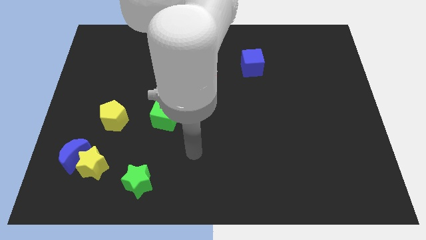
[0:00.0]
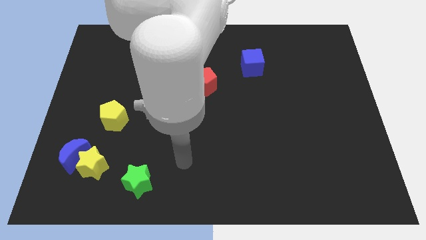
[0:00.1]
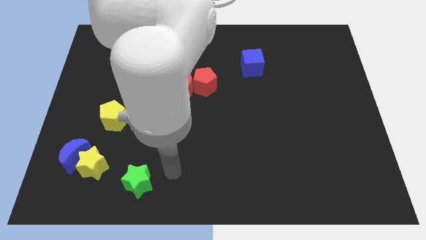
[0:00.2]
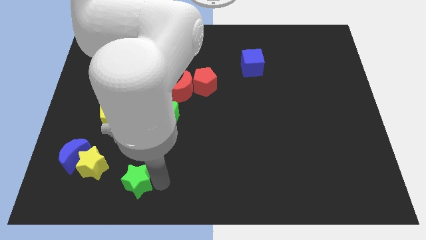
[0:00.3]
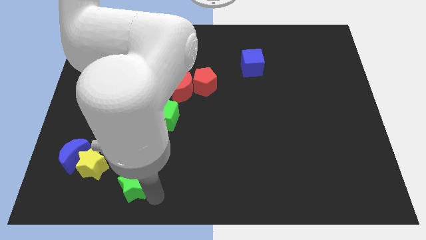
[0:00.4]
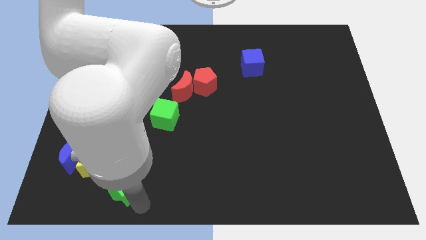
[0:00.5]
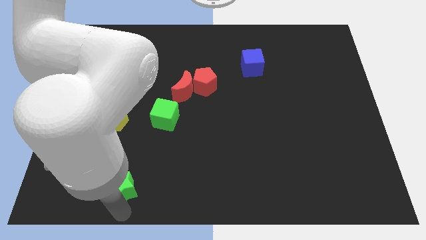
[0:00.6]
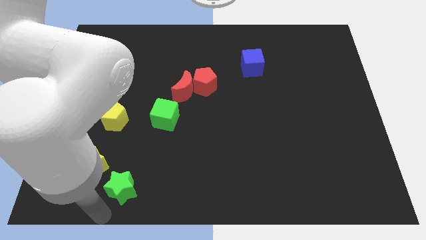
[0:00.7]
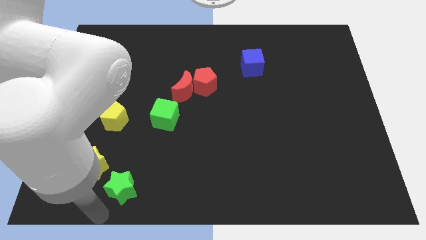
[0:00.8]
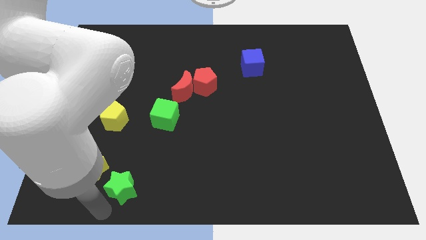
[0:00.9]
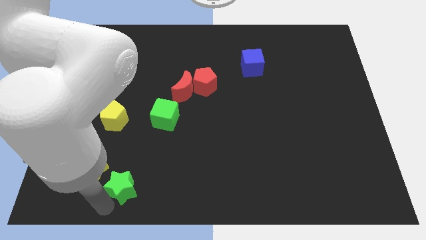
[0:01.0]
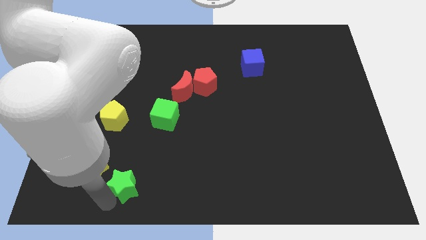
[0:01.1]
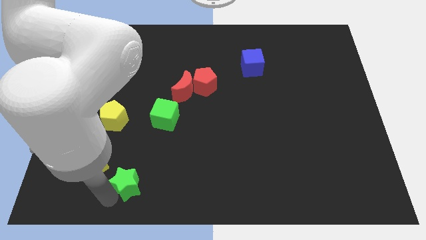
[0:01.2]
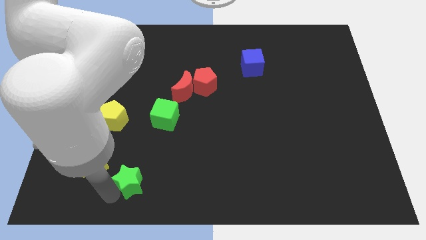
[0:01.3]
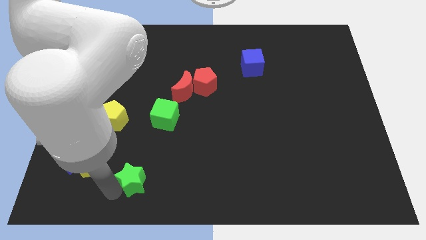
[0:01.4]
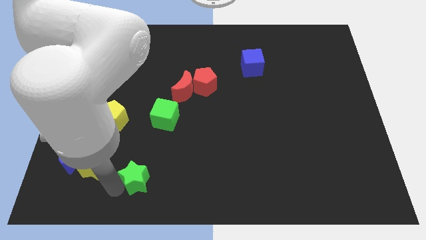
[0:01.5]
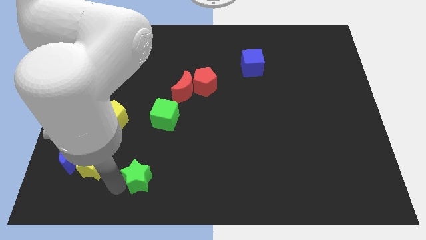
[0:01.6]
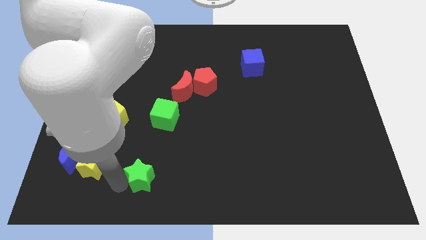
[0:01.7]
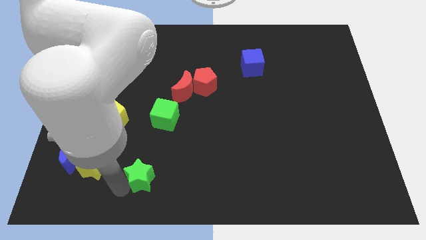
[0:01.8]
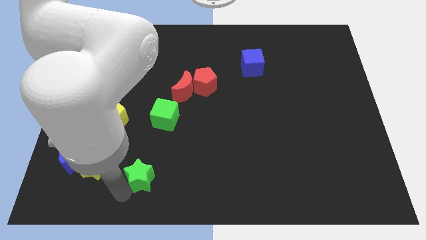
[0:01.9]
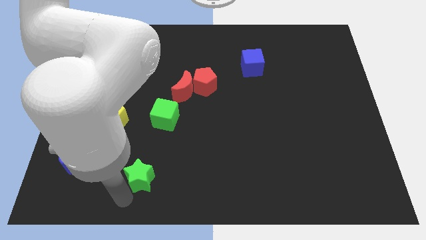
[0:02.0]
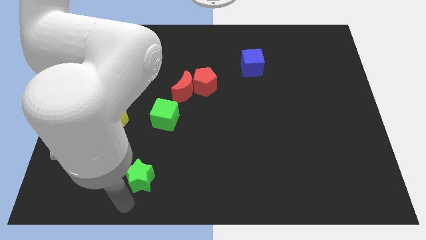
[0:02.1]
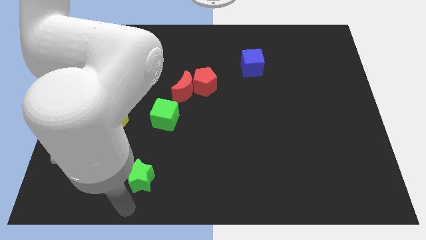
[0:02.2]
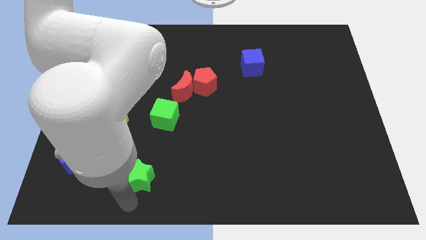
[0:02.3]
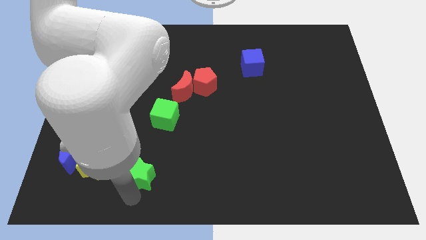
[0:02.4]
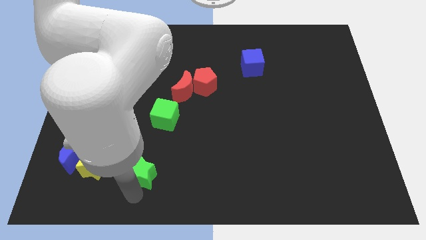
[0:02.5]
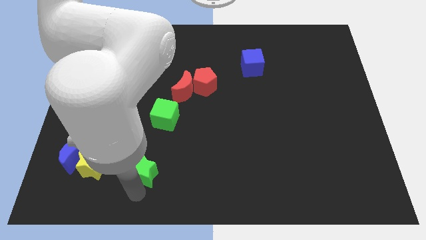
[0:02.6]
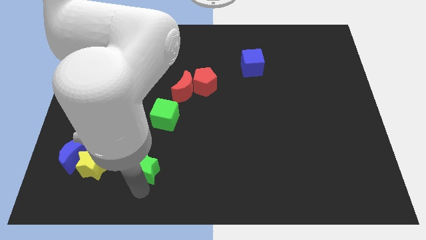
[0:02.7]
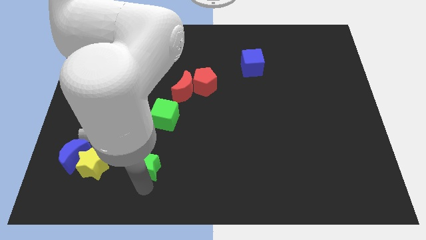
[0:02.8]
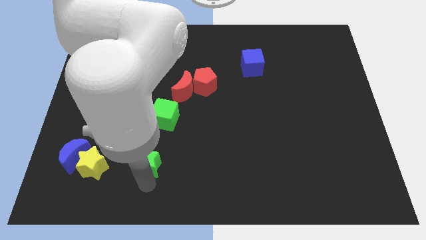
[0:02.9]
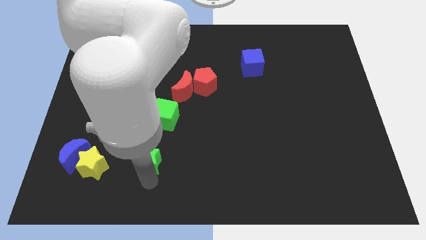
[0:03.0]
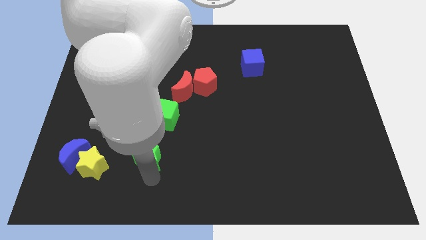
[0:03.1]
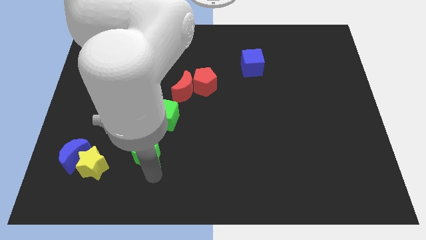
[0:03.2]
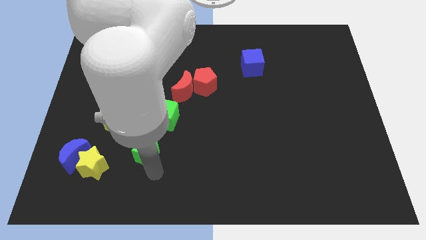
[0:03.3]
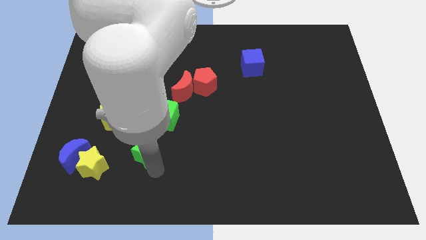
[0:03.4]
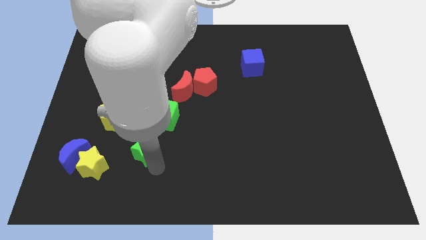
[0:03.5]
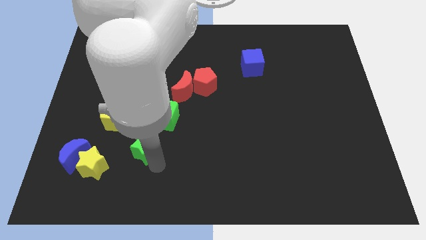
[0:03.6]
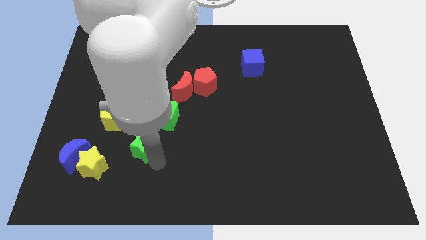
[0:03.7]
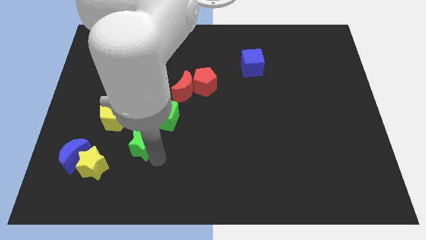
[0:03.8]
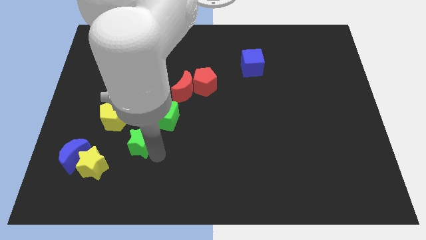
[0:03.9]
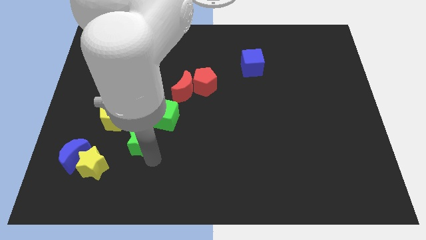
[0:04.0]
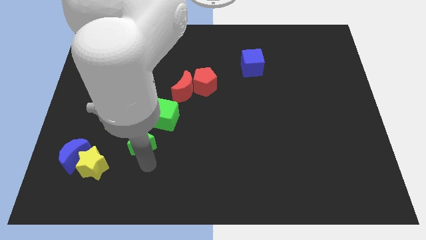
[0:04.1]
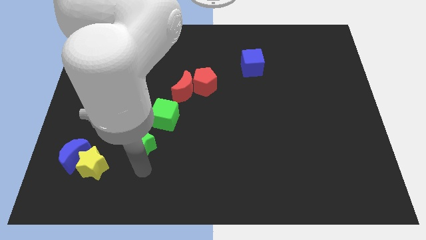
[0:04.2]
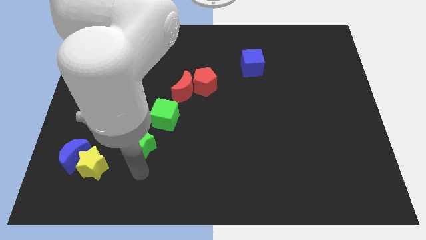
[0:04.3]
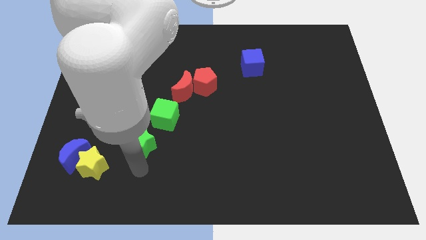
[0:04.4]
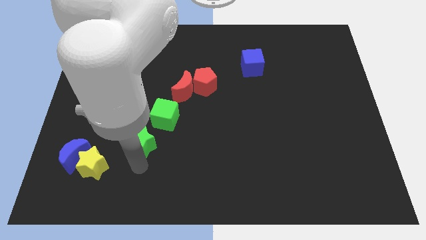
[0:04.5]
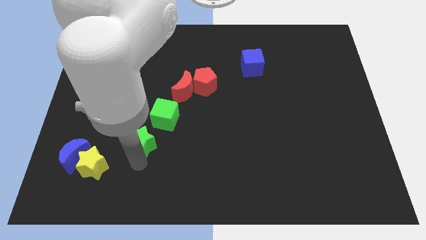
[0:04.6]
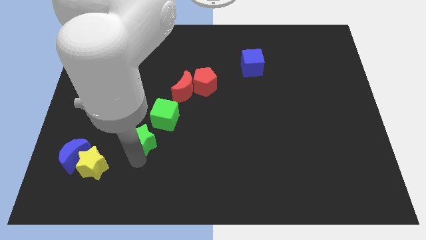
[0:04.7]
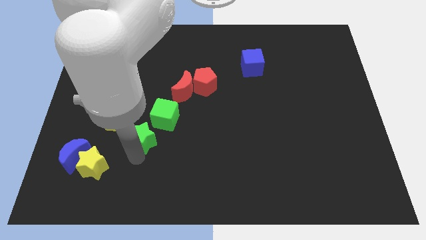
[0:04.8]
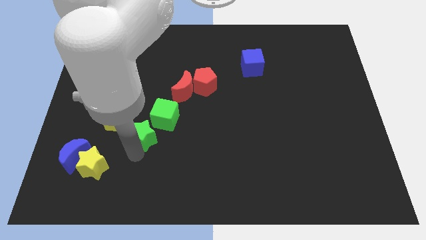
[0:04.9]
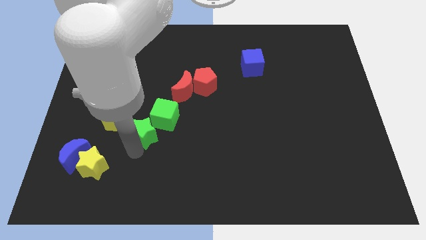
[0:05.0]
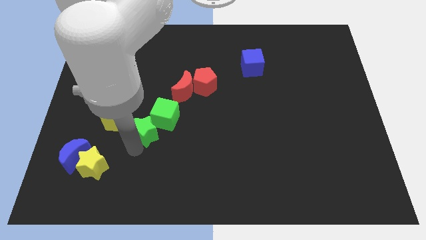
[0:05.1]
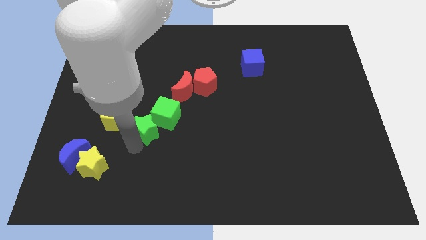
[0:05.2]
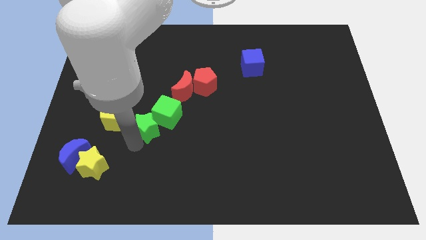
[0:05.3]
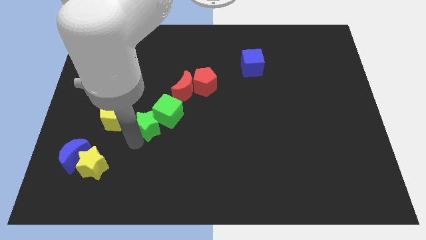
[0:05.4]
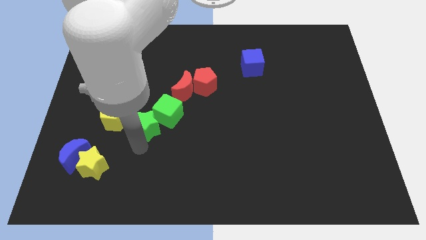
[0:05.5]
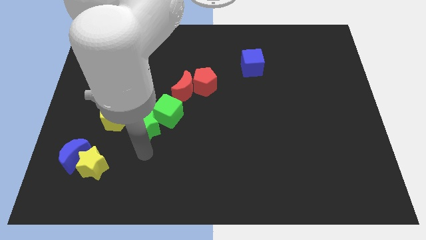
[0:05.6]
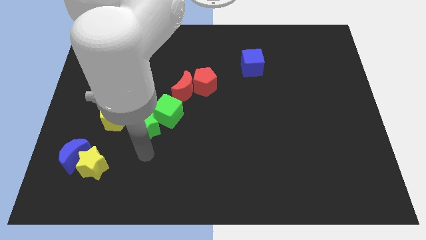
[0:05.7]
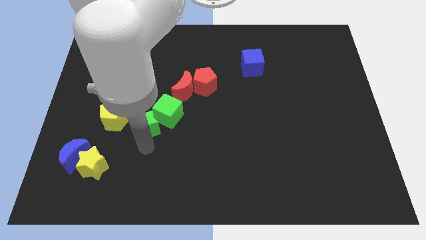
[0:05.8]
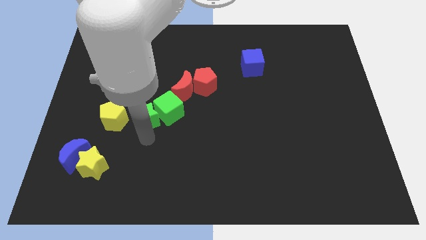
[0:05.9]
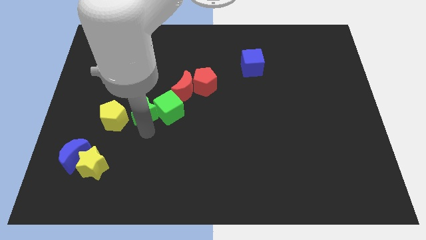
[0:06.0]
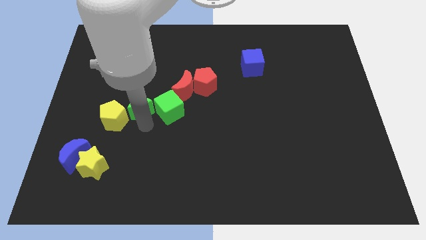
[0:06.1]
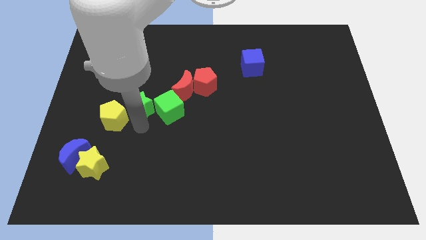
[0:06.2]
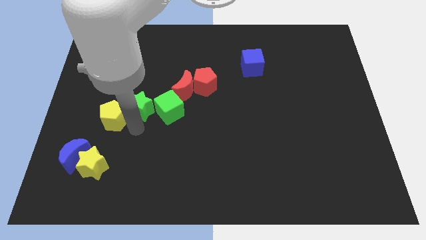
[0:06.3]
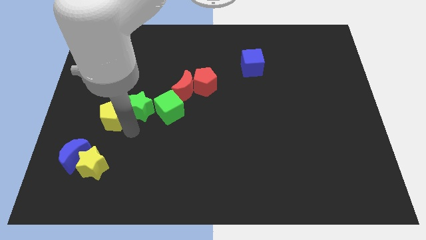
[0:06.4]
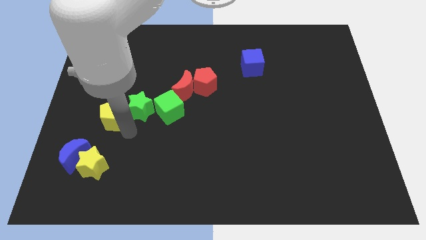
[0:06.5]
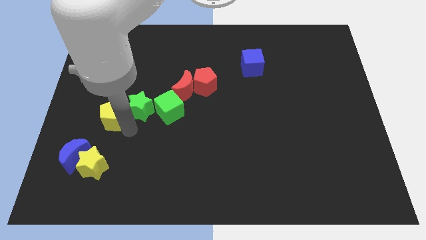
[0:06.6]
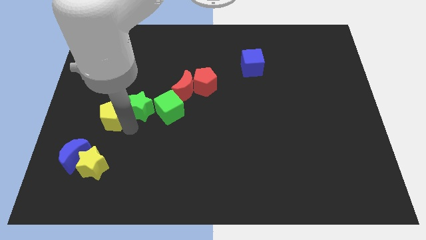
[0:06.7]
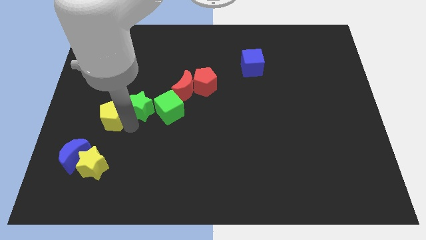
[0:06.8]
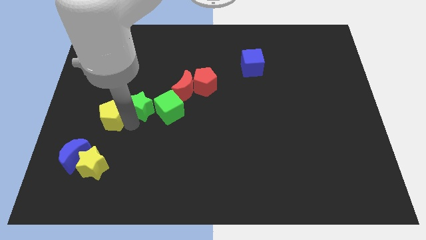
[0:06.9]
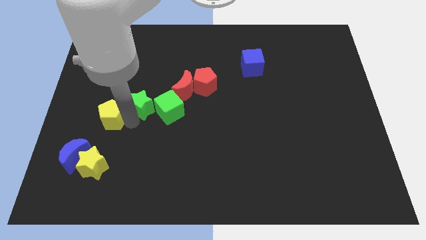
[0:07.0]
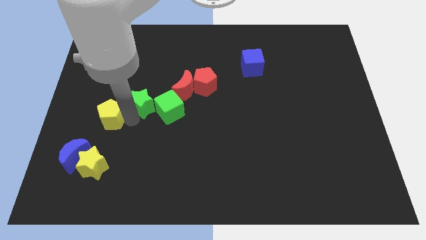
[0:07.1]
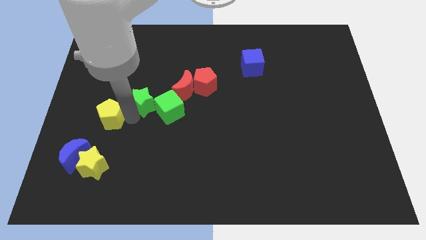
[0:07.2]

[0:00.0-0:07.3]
push the green star upwards

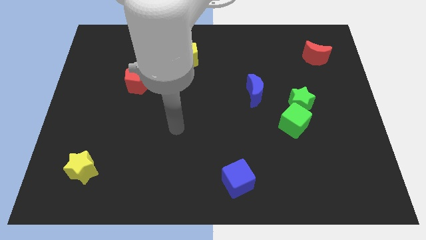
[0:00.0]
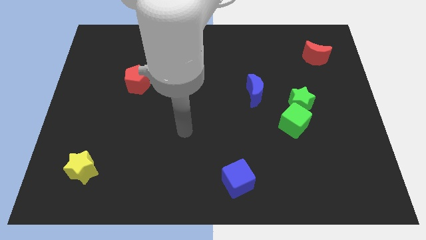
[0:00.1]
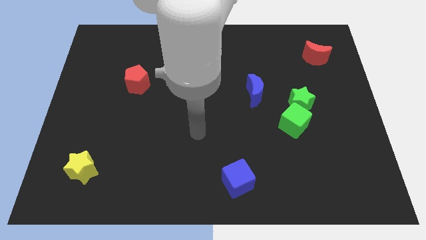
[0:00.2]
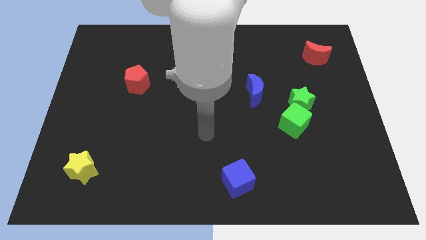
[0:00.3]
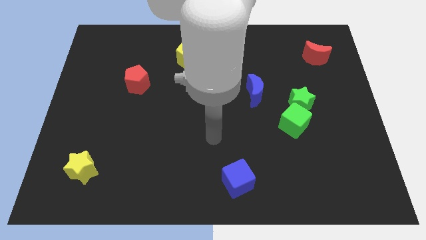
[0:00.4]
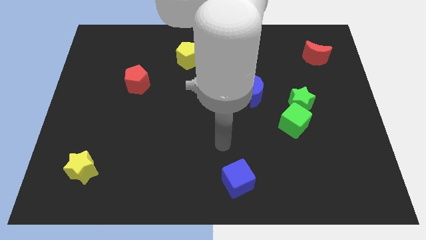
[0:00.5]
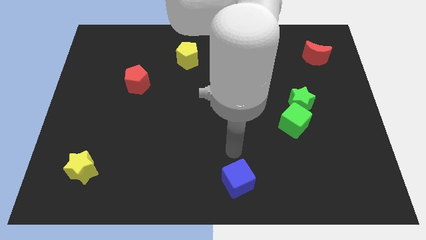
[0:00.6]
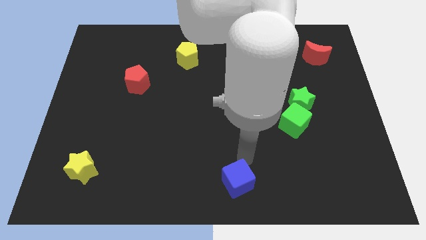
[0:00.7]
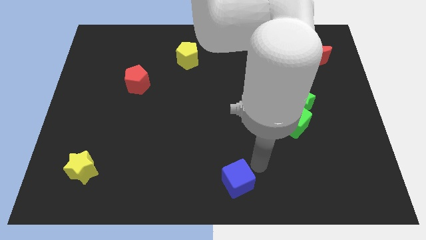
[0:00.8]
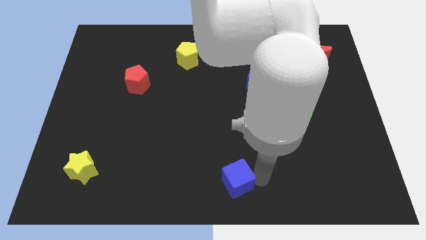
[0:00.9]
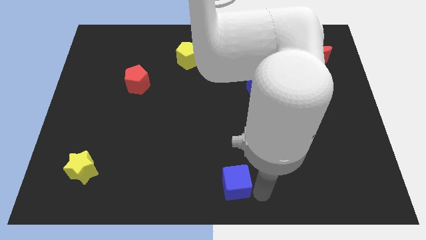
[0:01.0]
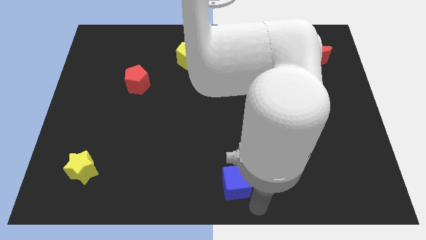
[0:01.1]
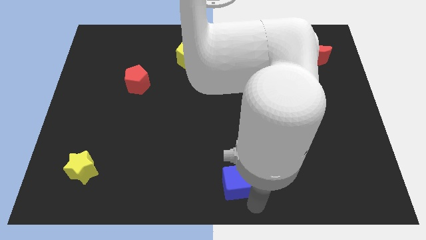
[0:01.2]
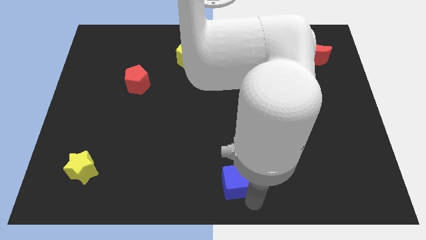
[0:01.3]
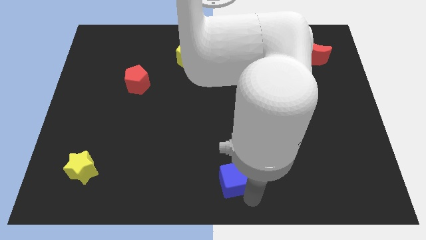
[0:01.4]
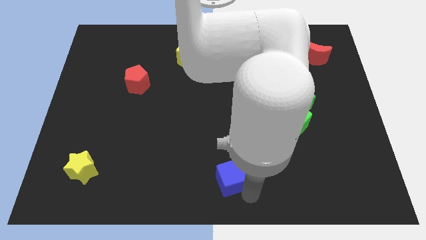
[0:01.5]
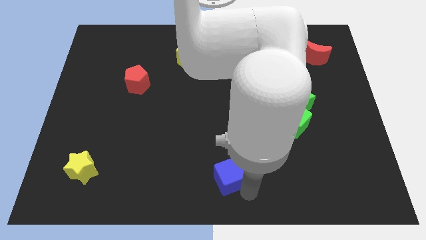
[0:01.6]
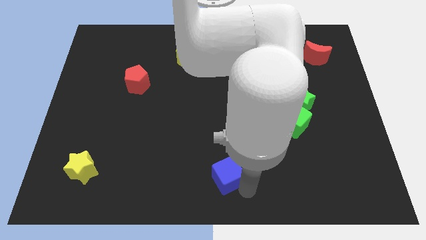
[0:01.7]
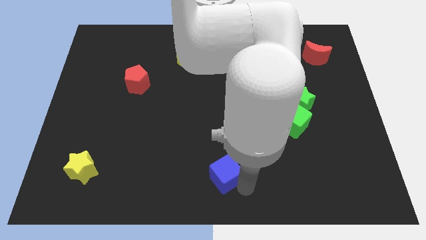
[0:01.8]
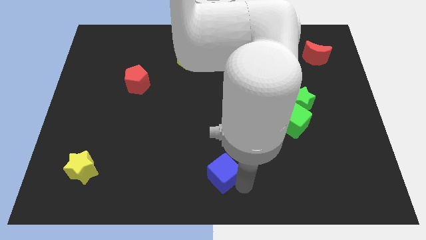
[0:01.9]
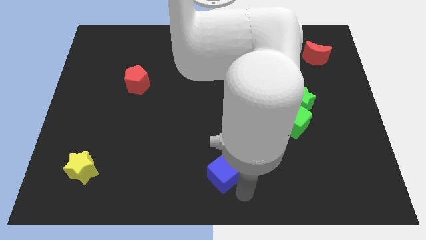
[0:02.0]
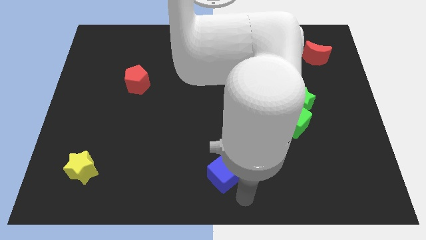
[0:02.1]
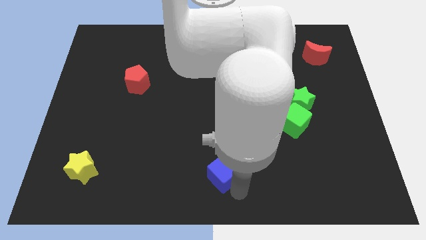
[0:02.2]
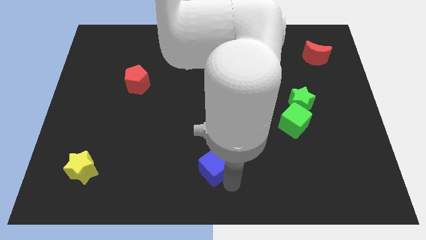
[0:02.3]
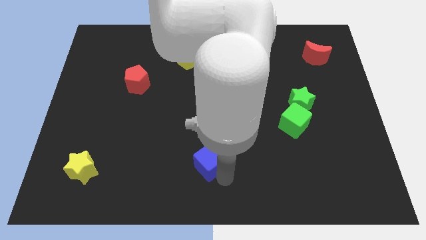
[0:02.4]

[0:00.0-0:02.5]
slightly slide the blue cube diagonally up and to the left
